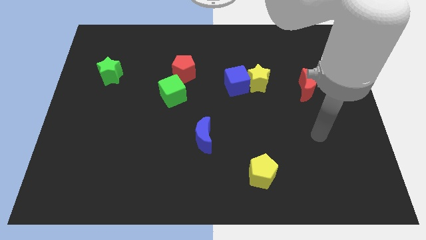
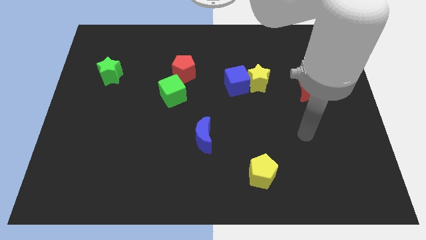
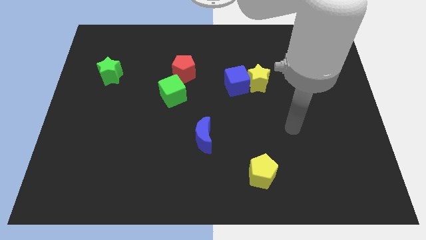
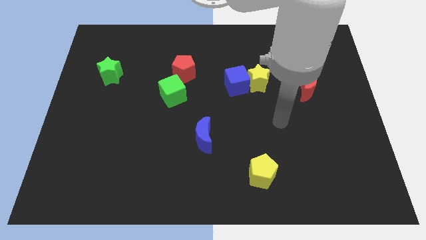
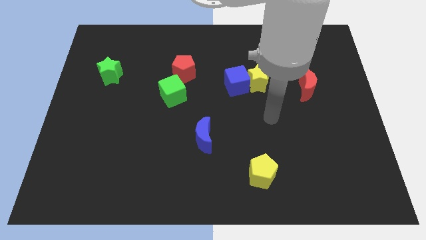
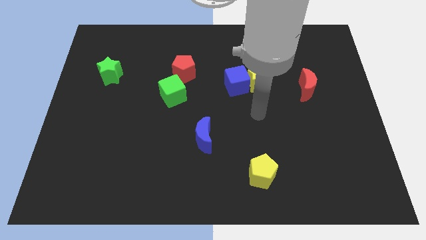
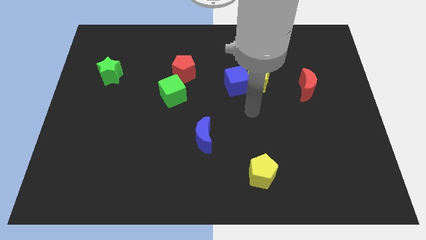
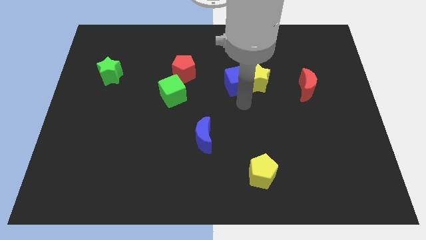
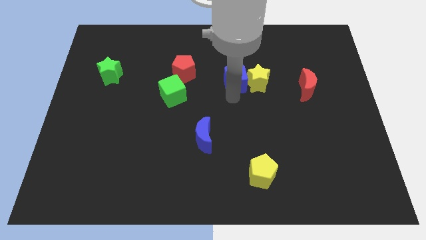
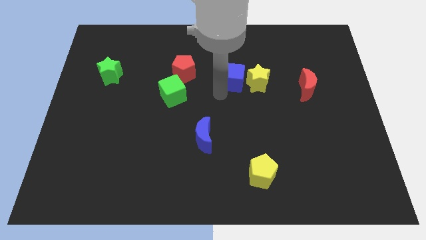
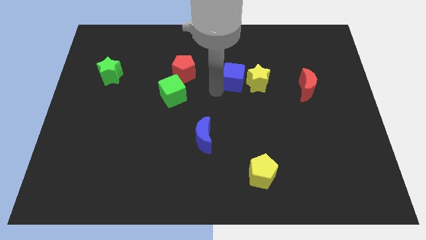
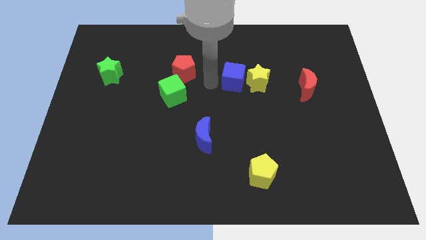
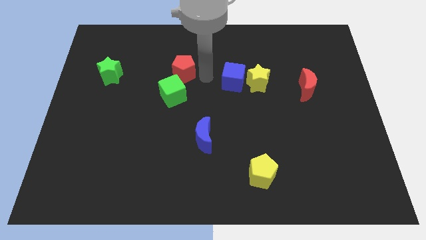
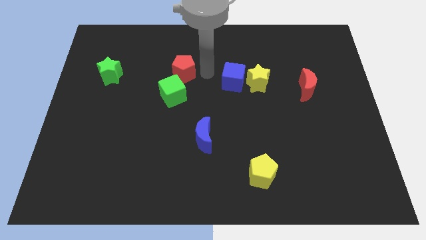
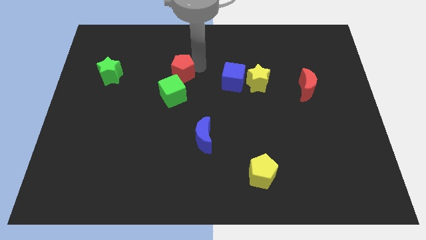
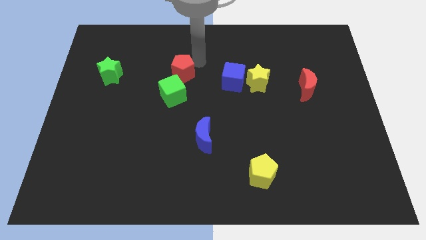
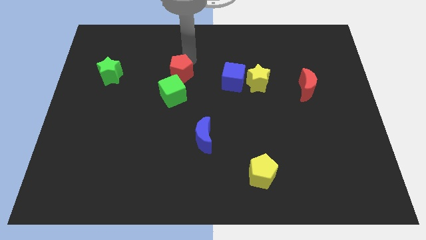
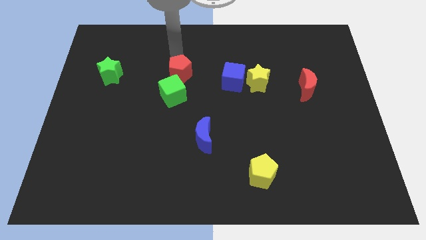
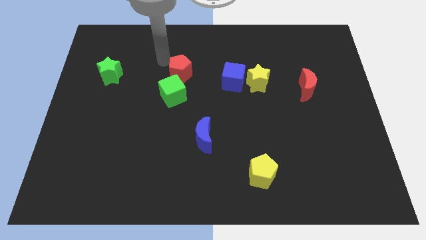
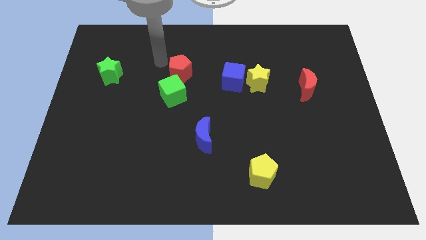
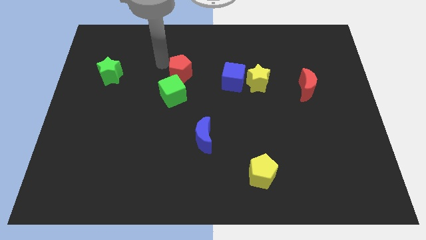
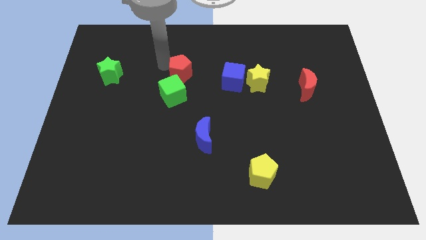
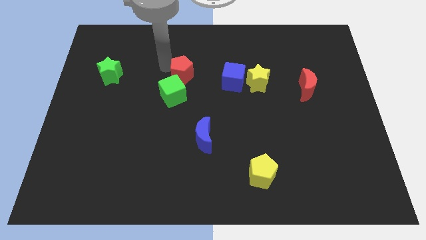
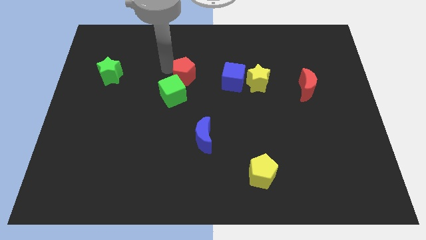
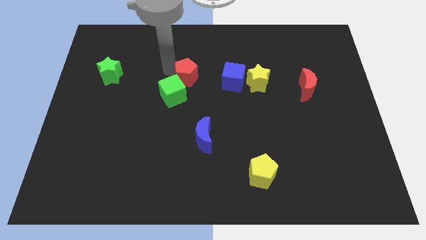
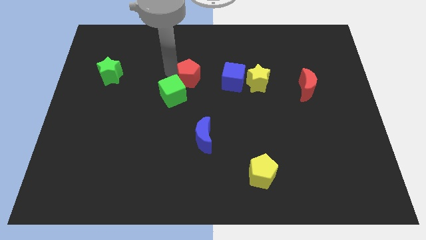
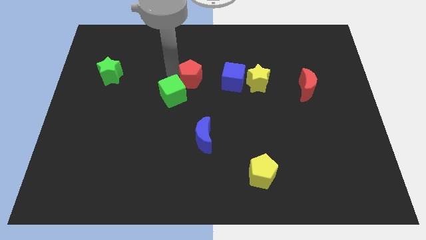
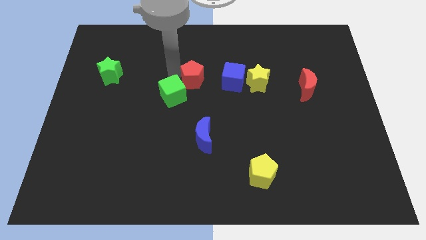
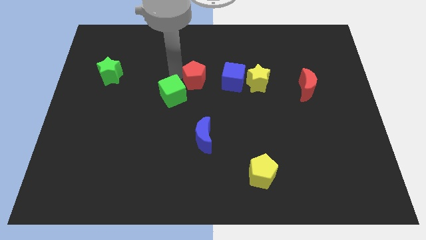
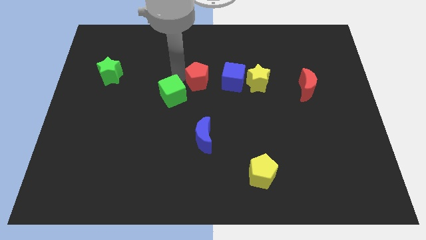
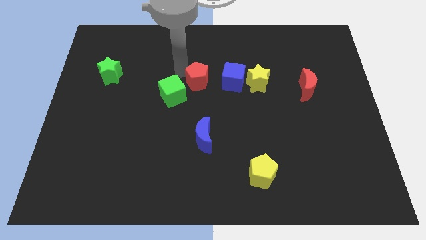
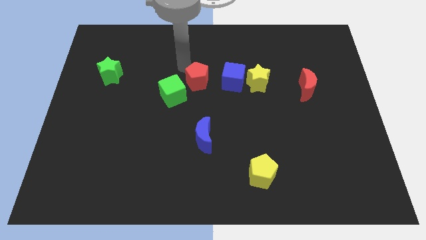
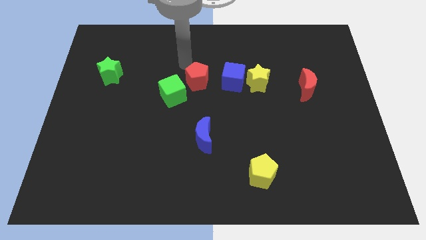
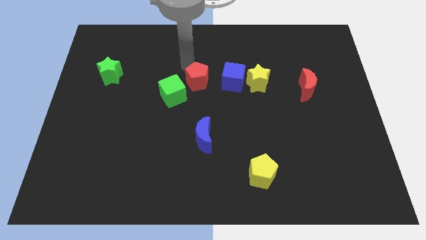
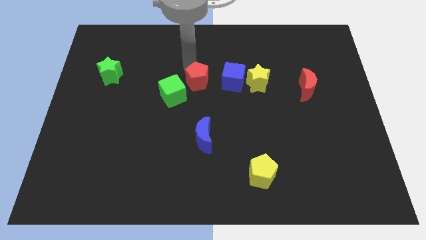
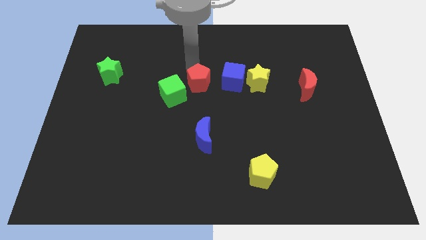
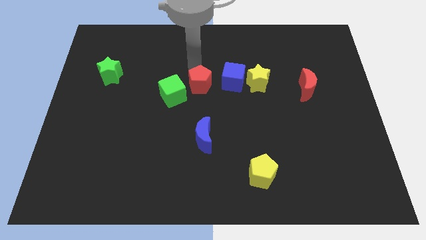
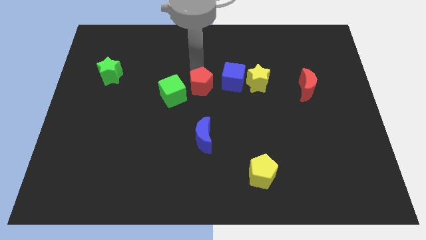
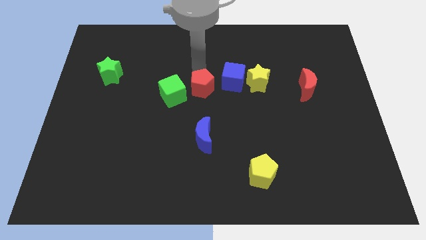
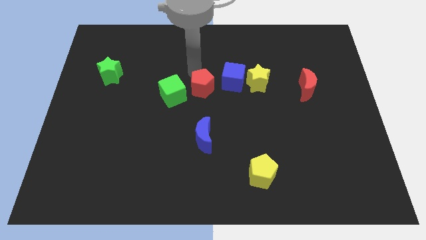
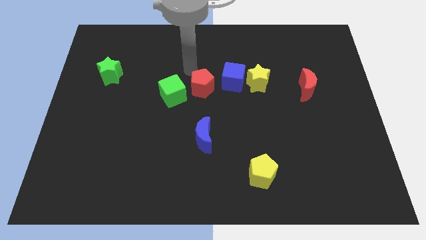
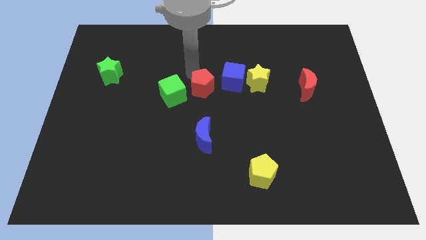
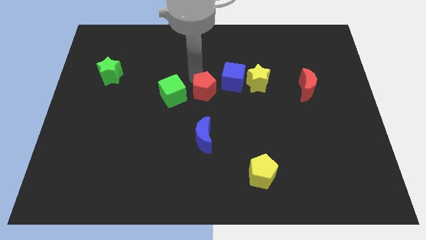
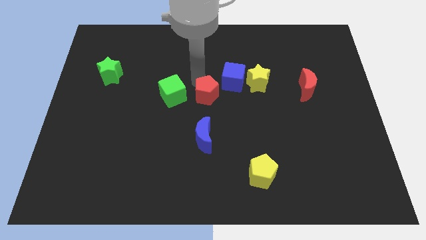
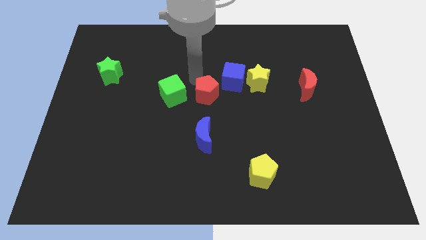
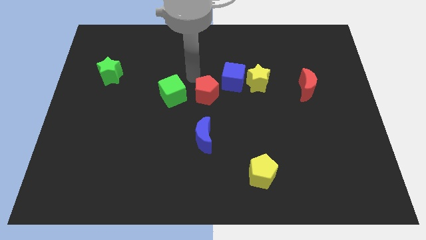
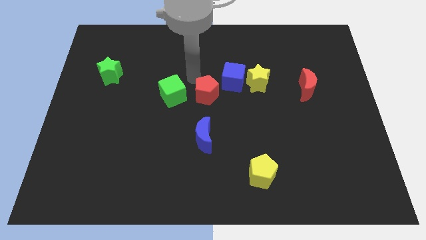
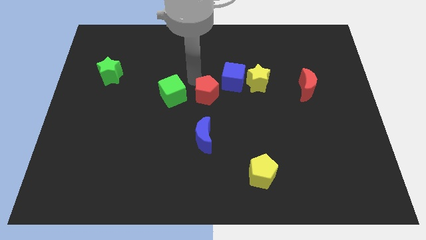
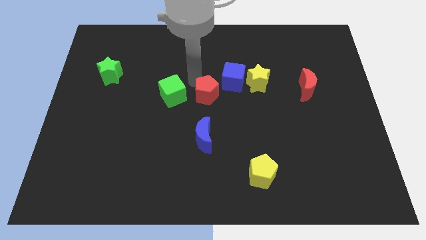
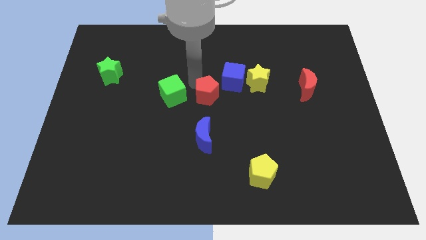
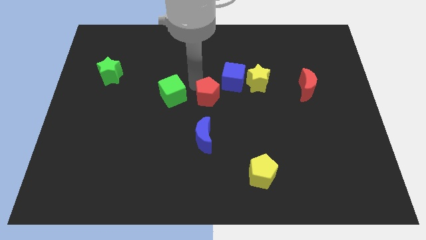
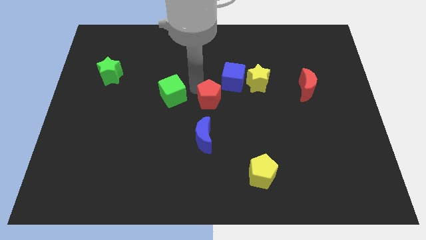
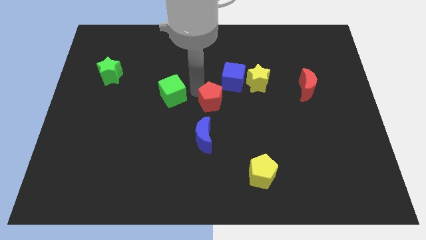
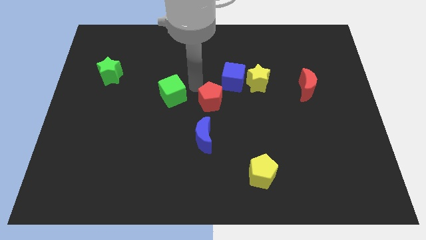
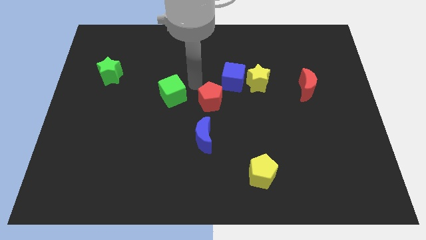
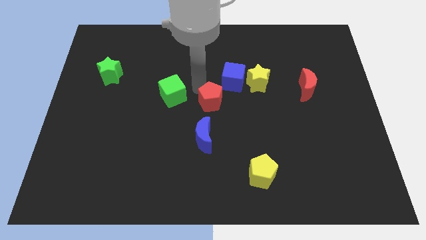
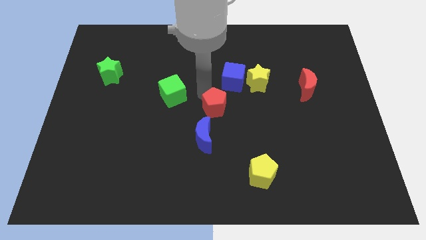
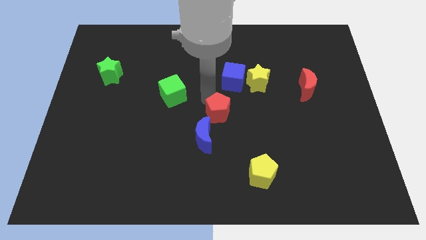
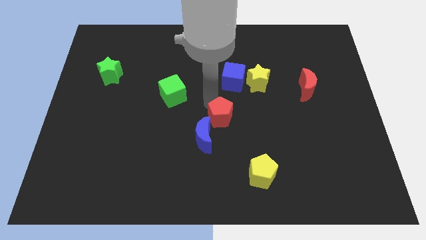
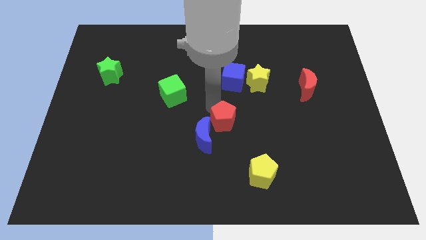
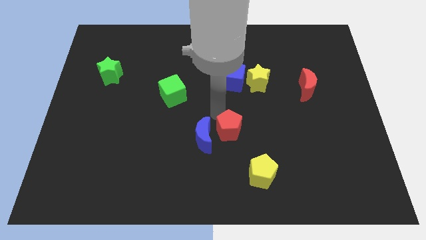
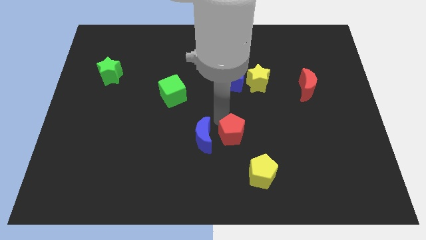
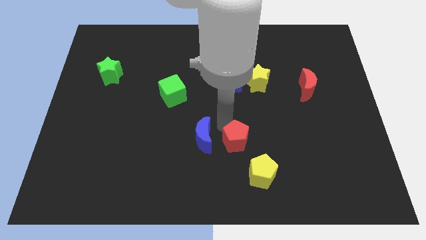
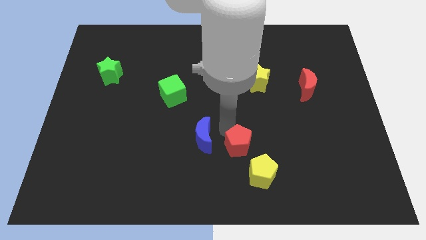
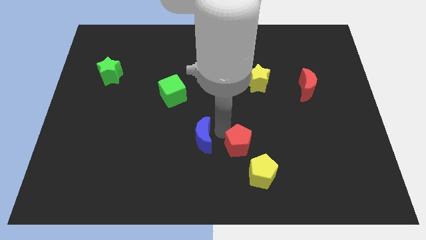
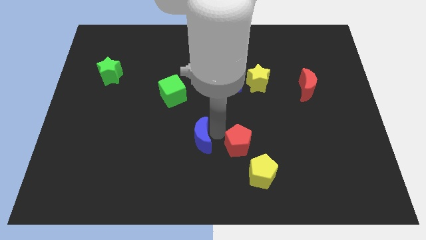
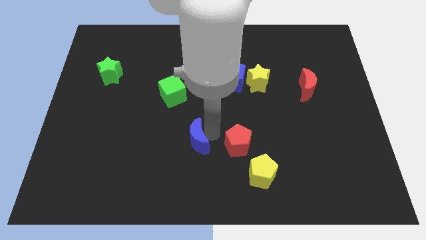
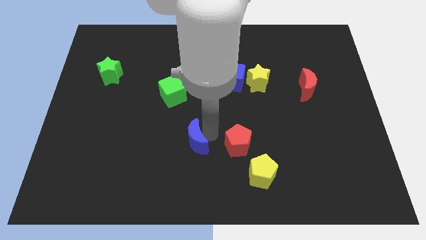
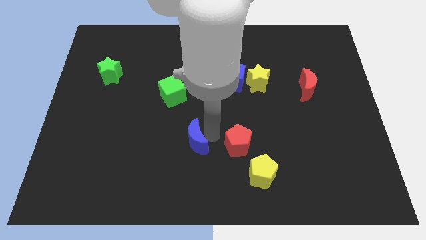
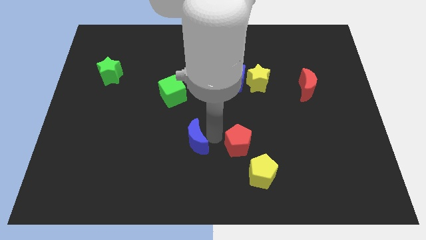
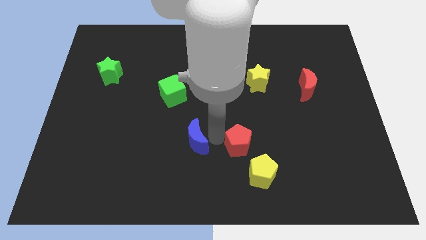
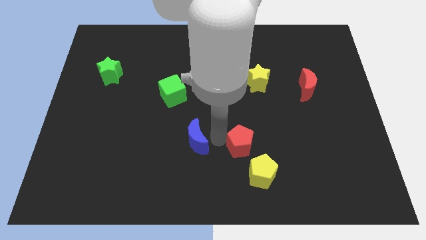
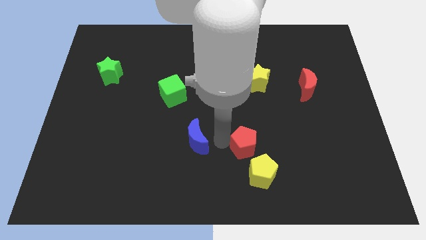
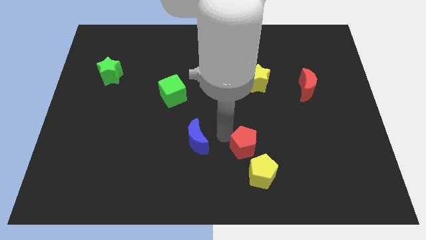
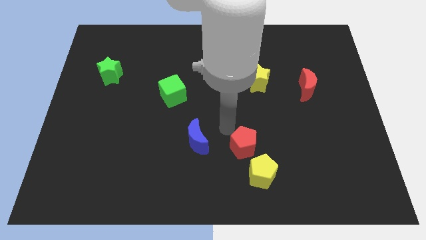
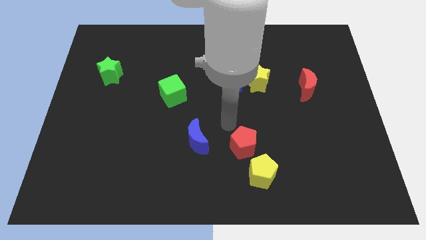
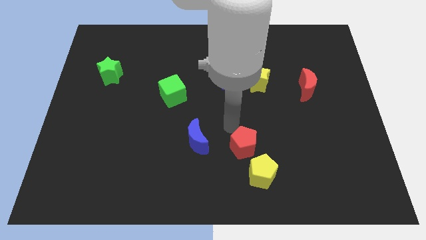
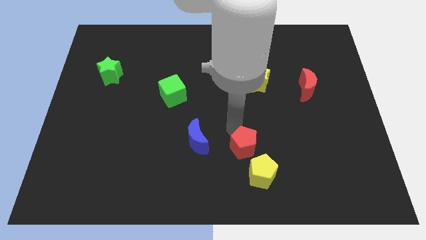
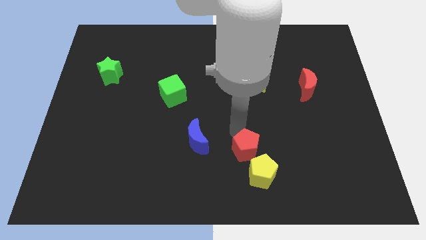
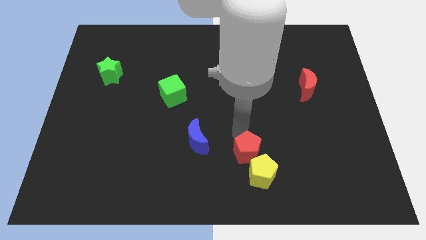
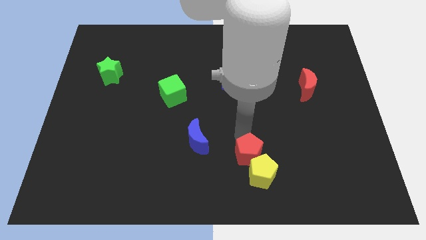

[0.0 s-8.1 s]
put the red pentagon next to the yellow pentagon
